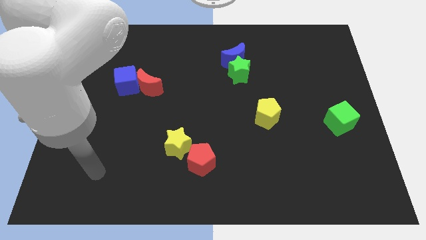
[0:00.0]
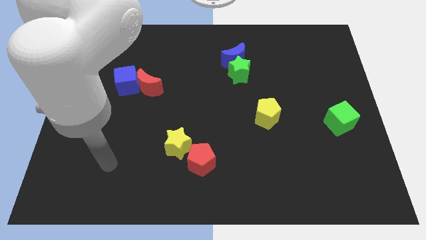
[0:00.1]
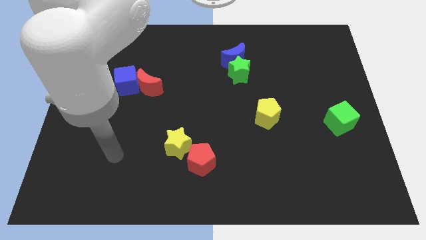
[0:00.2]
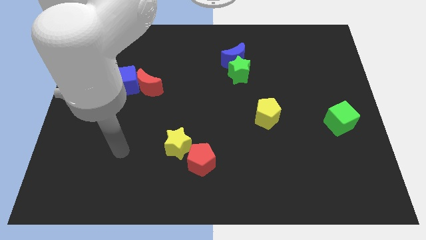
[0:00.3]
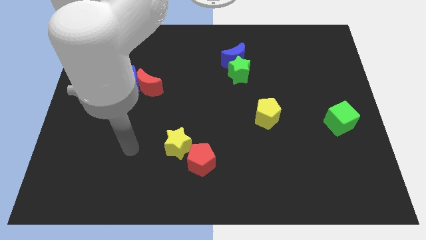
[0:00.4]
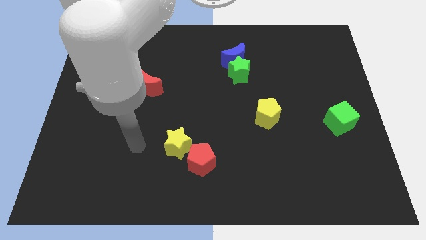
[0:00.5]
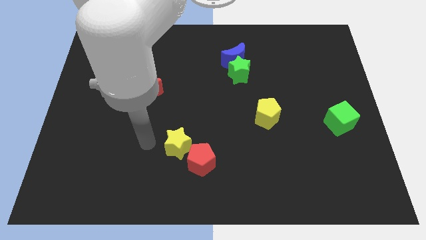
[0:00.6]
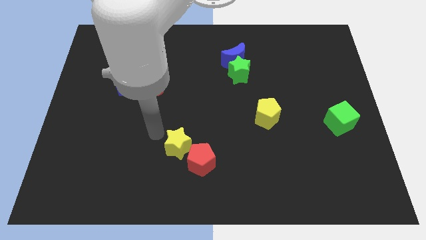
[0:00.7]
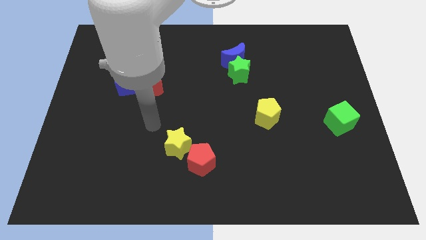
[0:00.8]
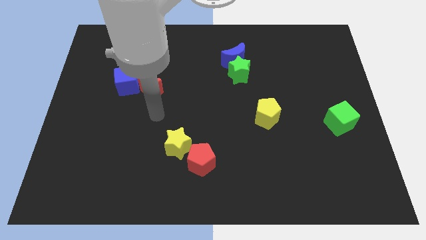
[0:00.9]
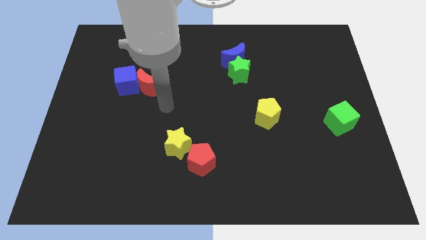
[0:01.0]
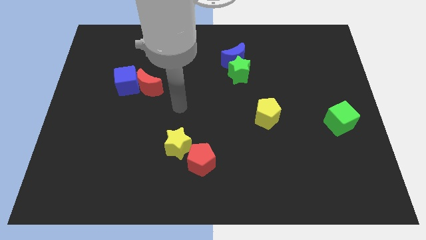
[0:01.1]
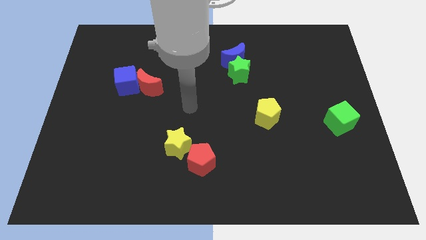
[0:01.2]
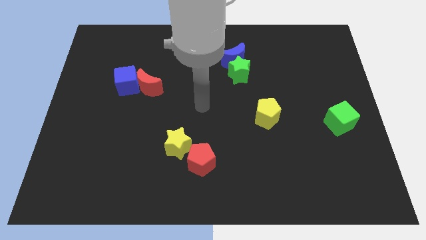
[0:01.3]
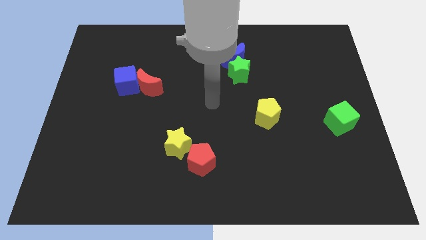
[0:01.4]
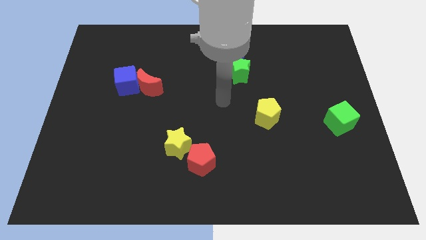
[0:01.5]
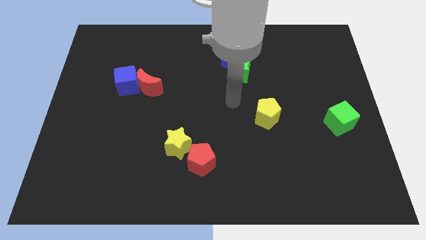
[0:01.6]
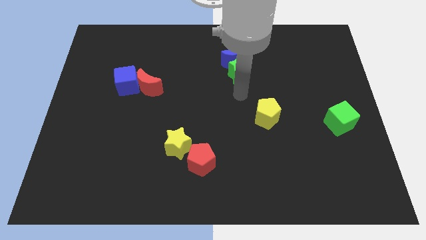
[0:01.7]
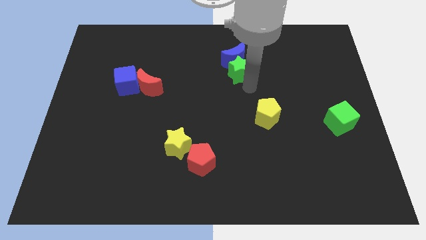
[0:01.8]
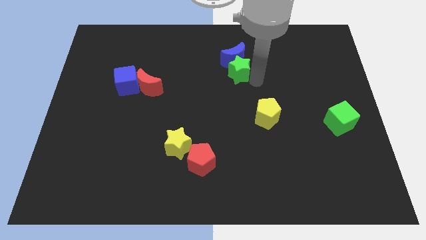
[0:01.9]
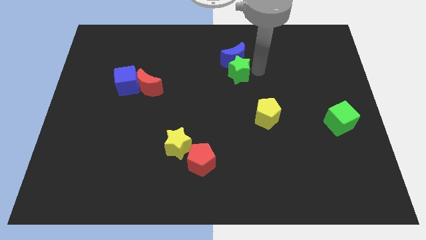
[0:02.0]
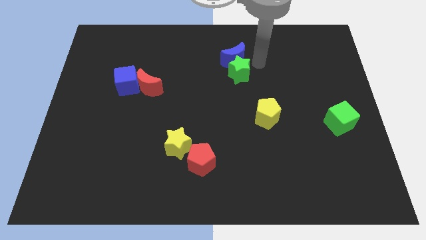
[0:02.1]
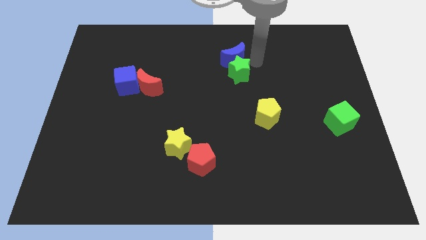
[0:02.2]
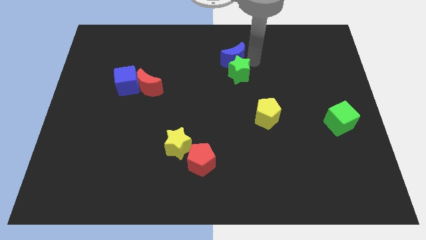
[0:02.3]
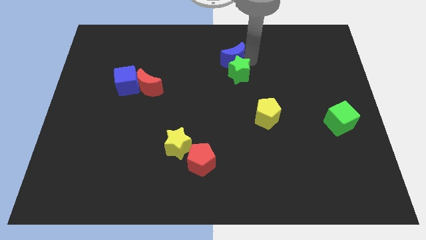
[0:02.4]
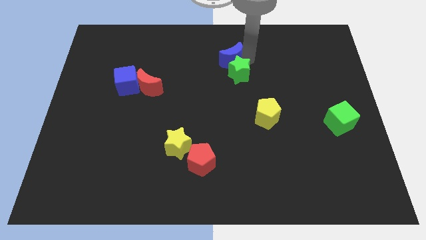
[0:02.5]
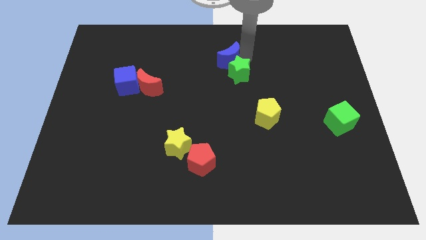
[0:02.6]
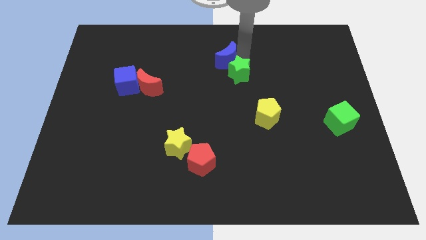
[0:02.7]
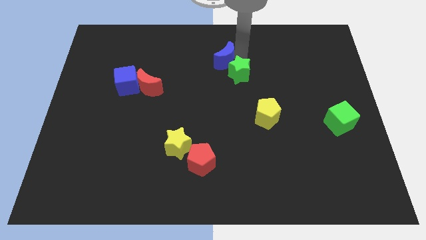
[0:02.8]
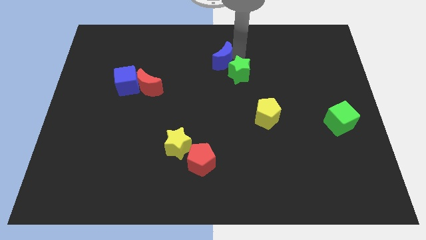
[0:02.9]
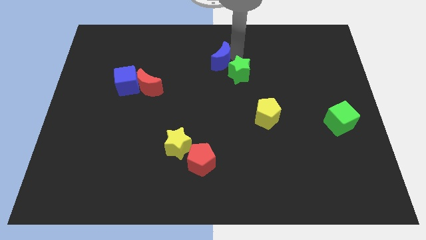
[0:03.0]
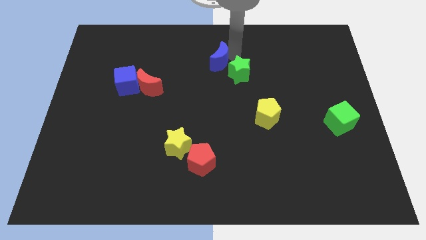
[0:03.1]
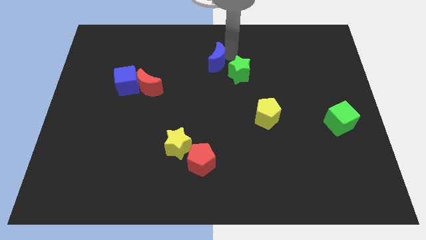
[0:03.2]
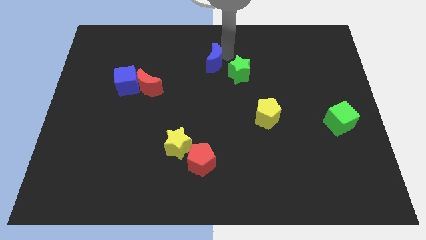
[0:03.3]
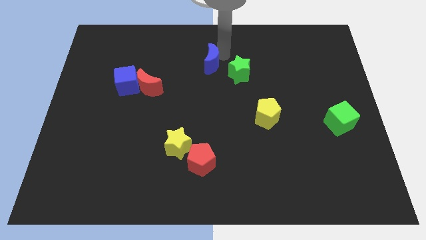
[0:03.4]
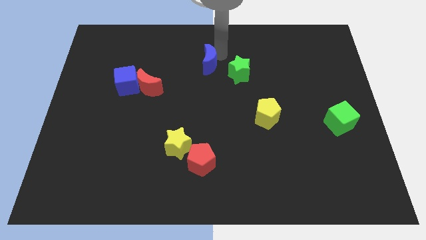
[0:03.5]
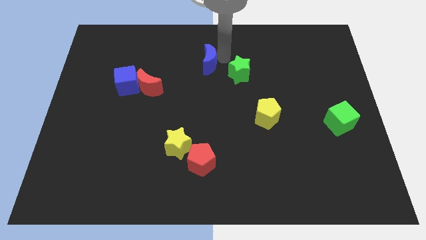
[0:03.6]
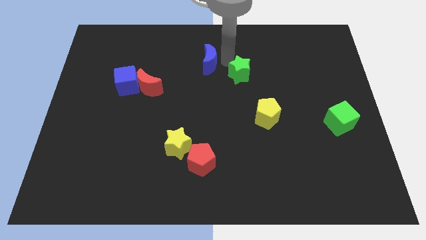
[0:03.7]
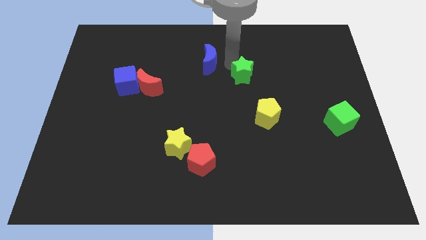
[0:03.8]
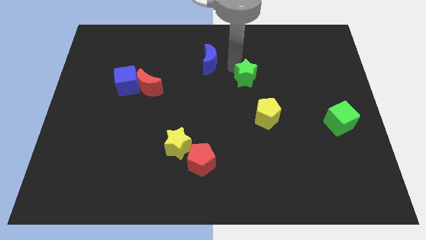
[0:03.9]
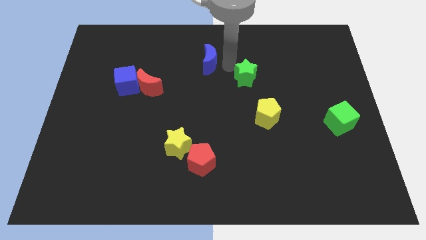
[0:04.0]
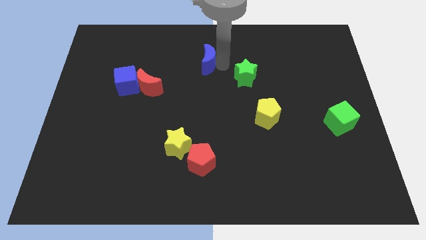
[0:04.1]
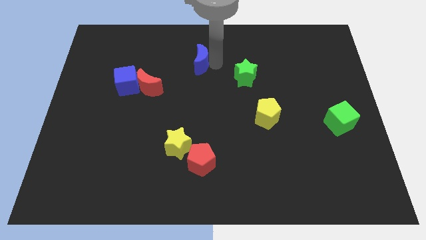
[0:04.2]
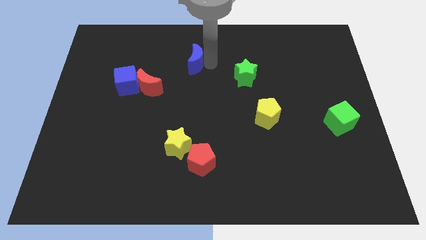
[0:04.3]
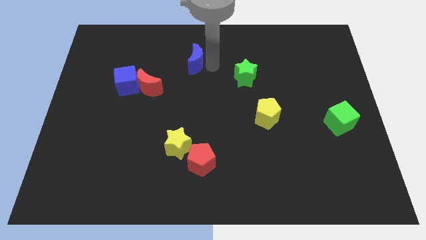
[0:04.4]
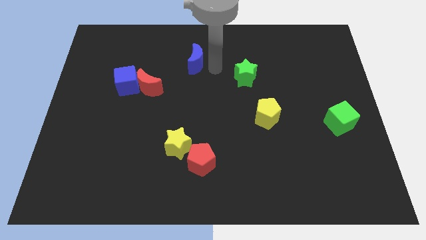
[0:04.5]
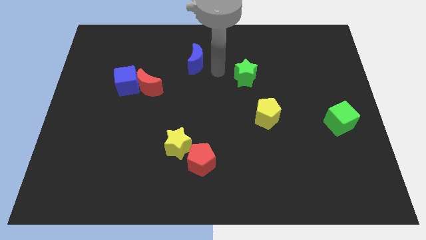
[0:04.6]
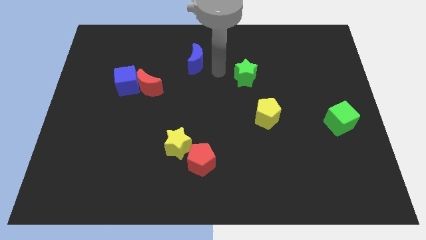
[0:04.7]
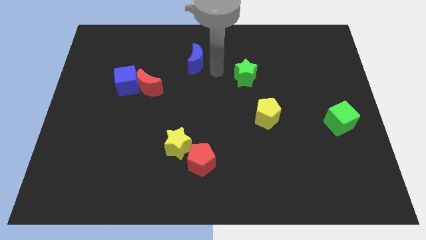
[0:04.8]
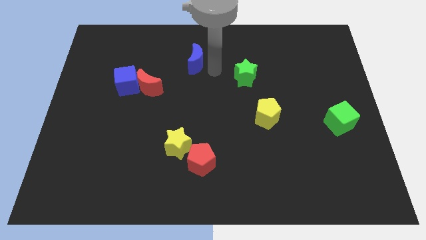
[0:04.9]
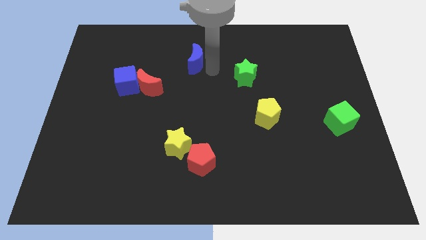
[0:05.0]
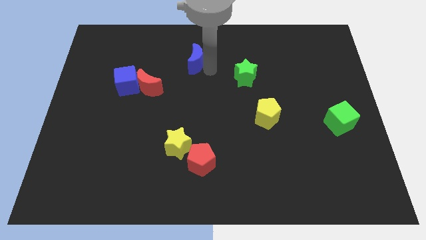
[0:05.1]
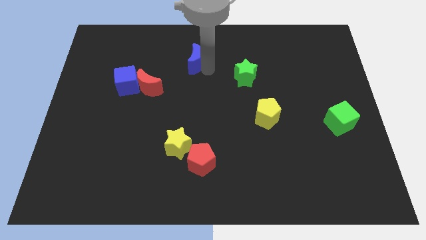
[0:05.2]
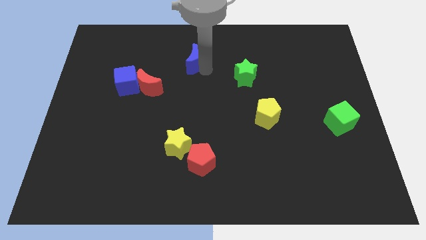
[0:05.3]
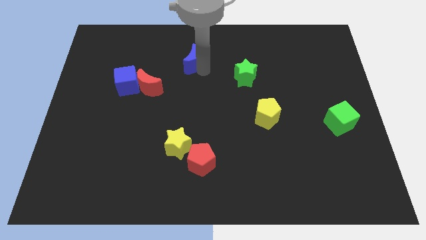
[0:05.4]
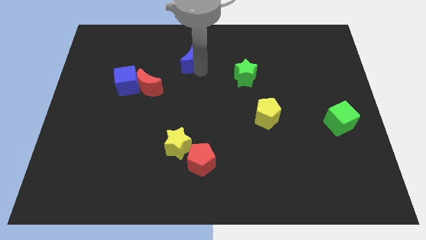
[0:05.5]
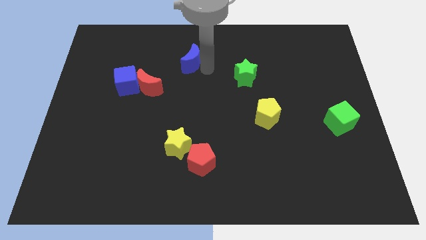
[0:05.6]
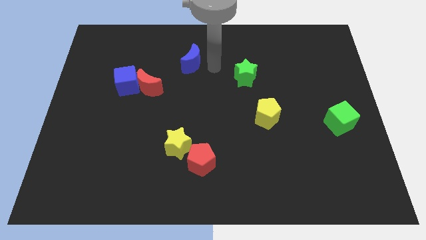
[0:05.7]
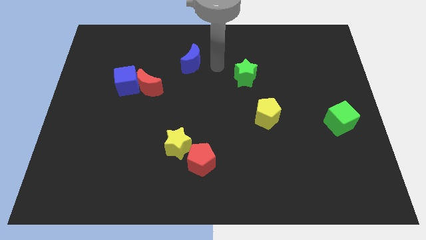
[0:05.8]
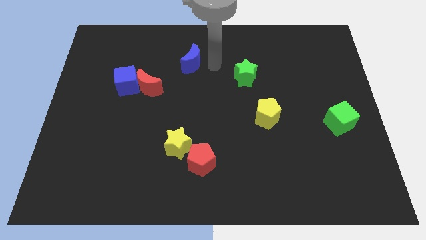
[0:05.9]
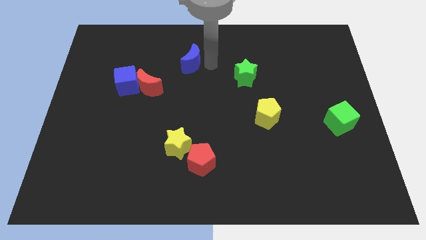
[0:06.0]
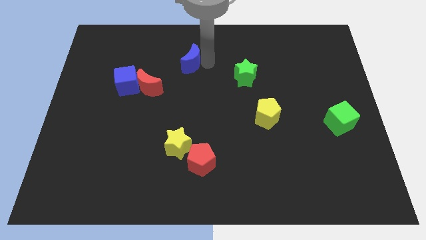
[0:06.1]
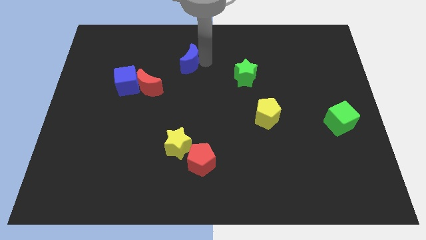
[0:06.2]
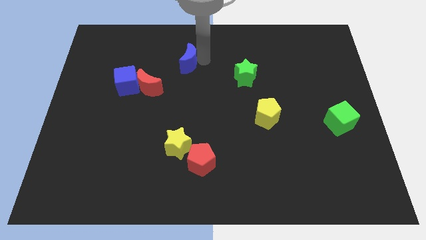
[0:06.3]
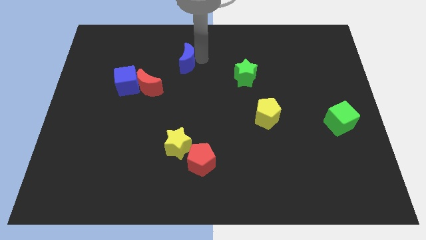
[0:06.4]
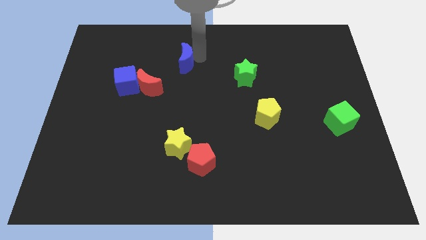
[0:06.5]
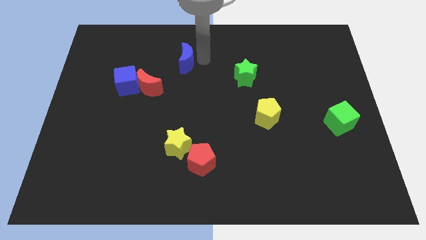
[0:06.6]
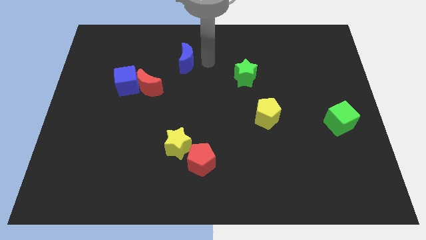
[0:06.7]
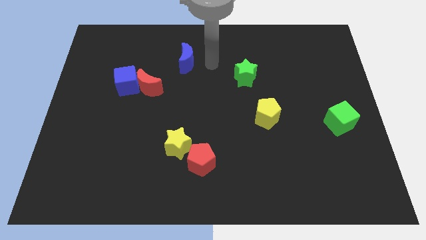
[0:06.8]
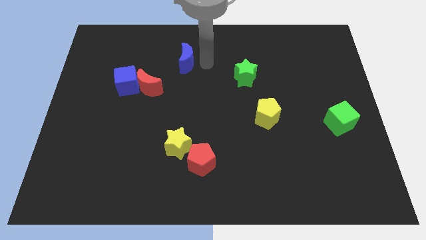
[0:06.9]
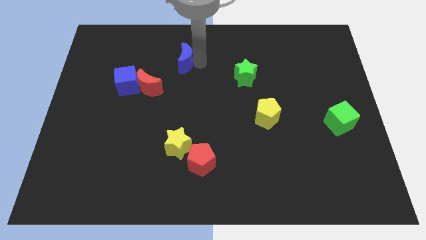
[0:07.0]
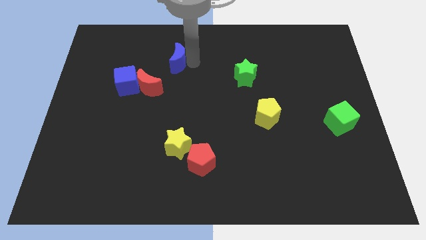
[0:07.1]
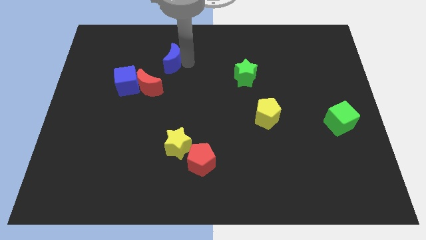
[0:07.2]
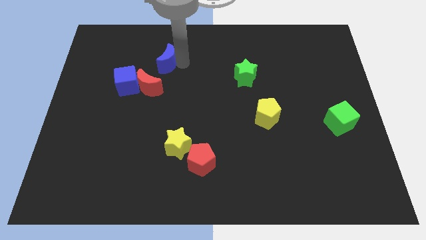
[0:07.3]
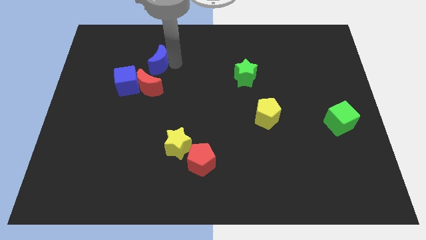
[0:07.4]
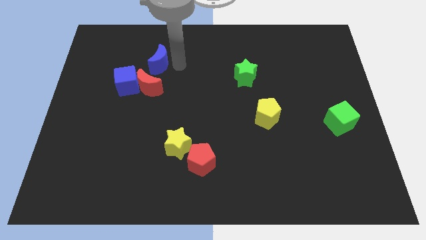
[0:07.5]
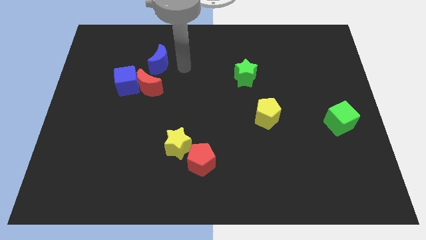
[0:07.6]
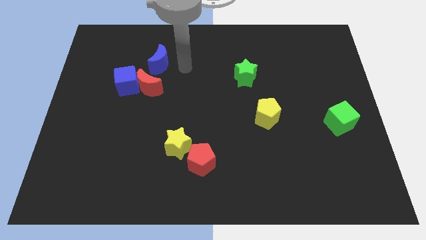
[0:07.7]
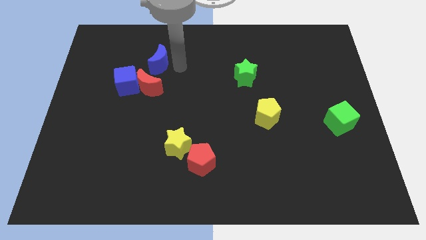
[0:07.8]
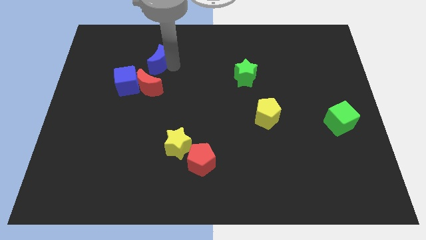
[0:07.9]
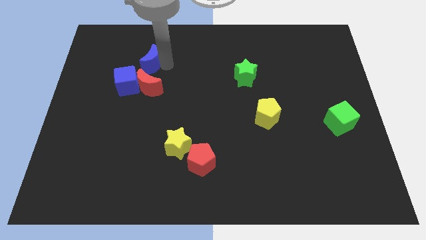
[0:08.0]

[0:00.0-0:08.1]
move the blue moon to the left
